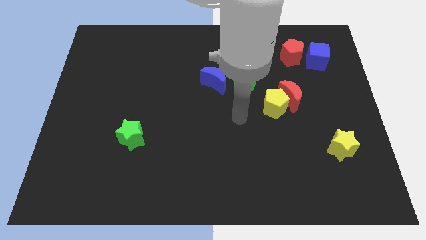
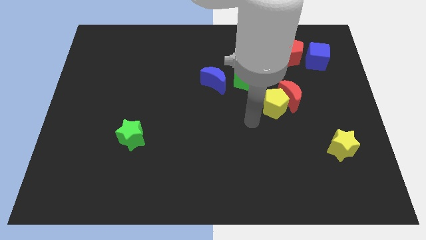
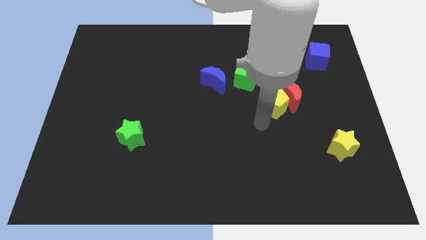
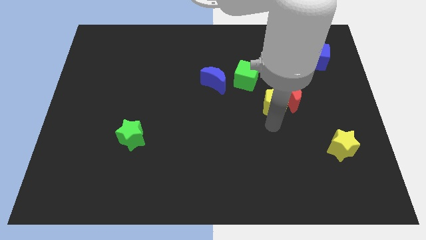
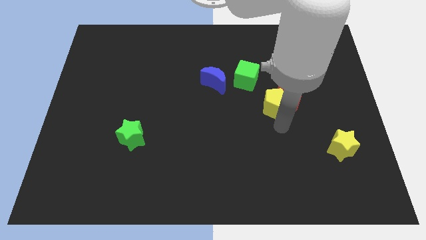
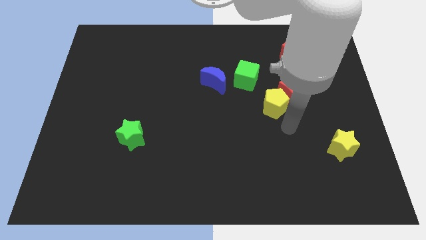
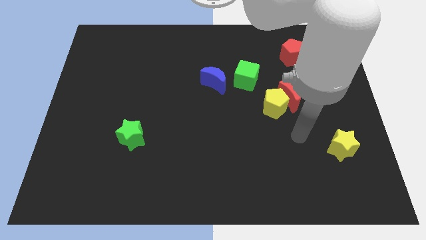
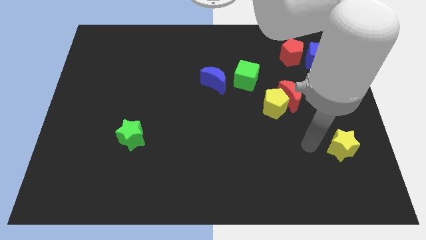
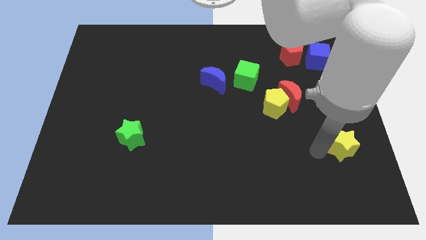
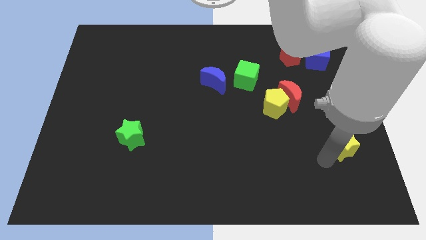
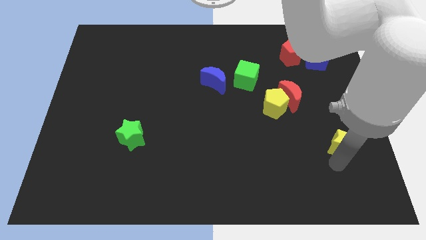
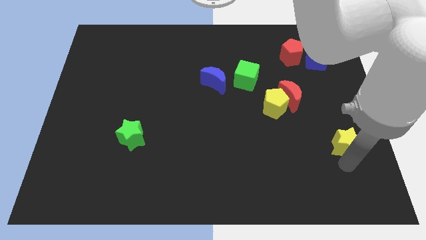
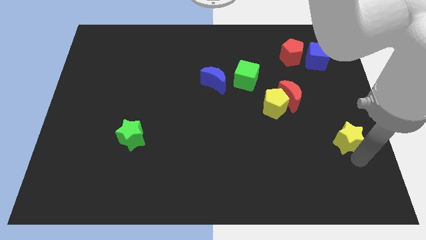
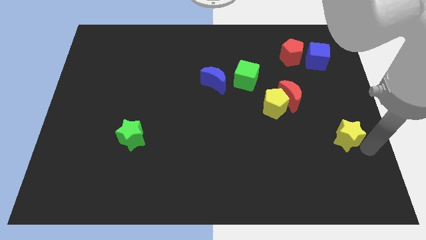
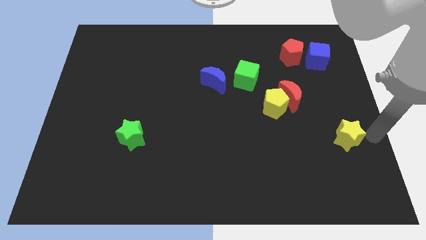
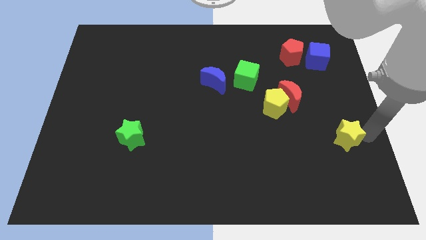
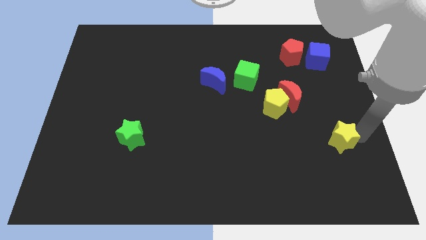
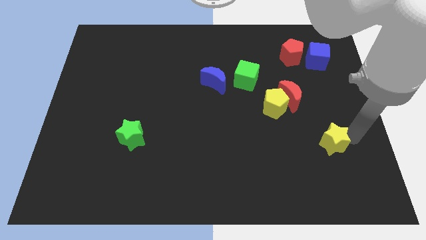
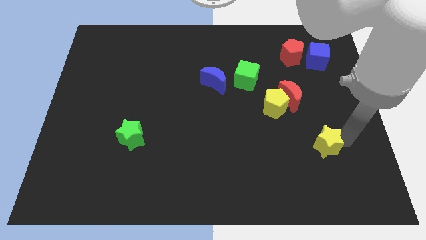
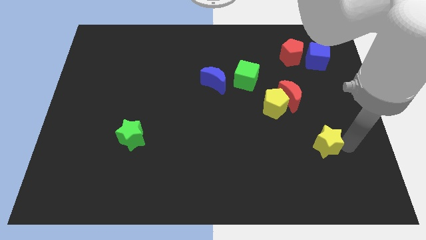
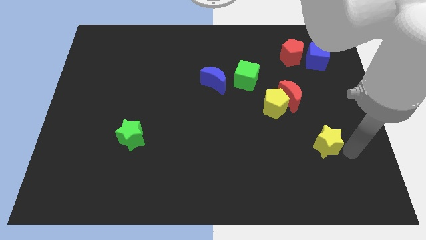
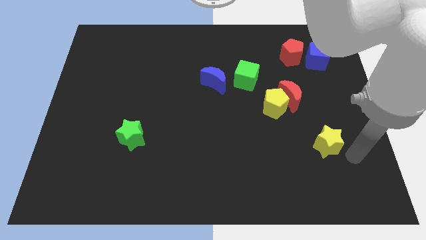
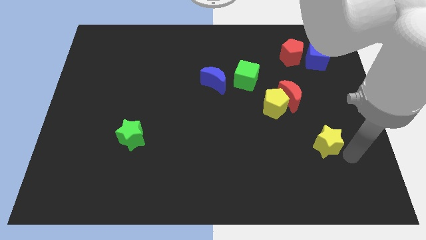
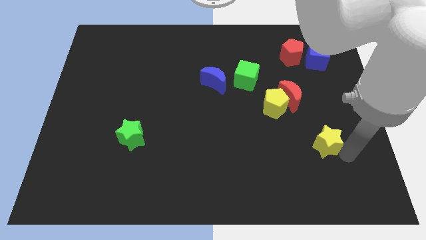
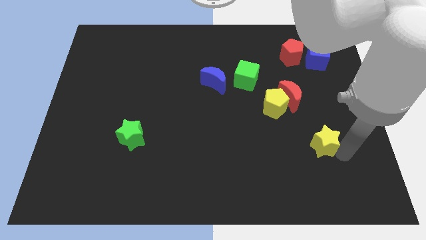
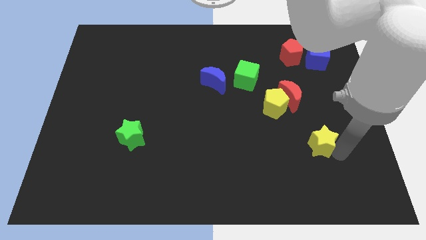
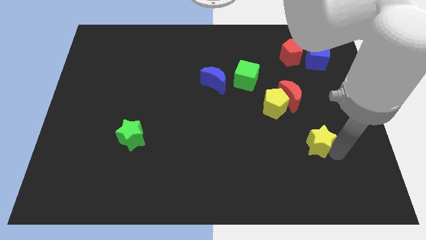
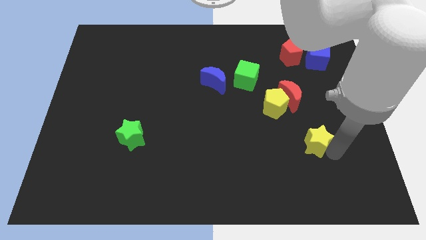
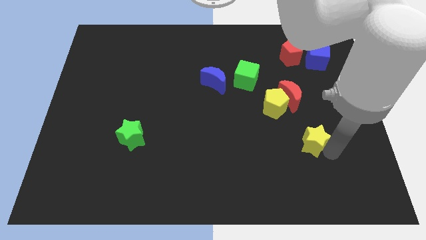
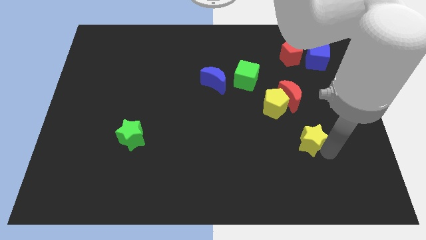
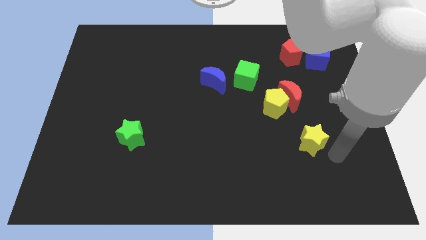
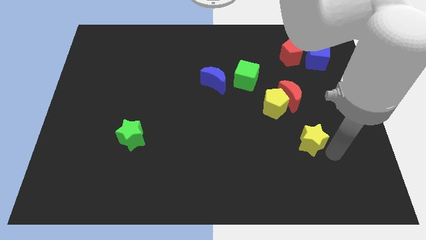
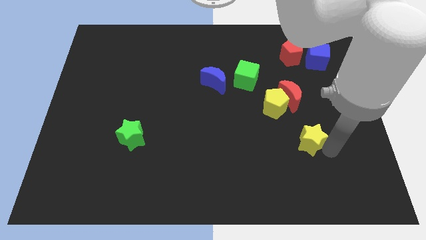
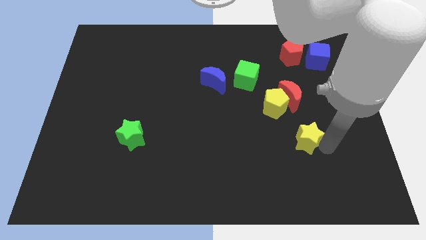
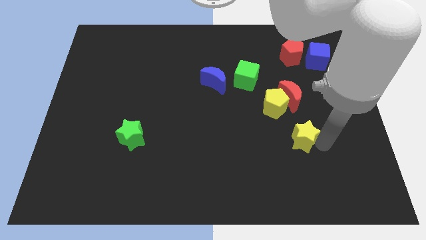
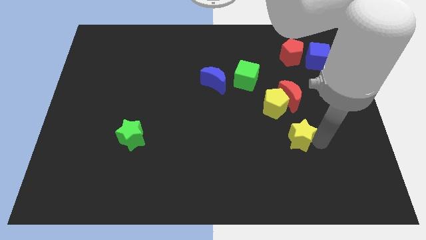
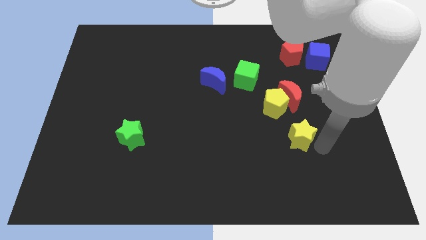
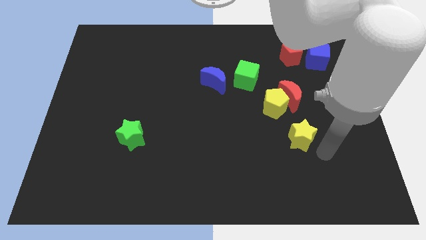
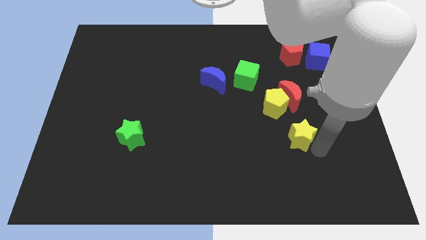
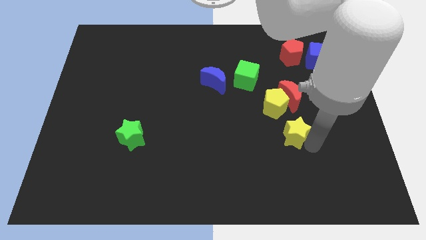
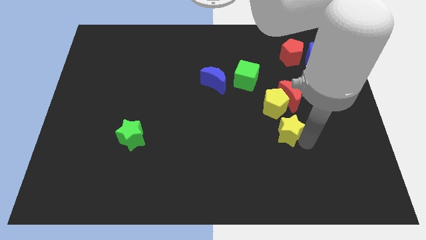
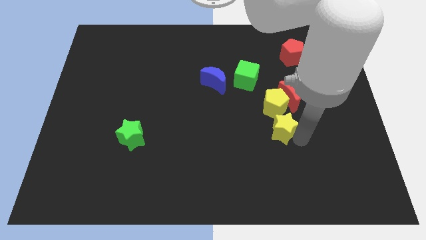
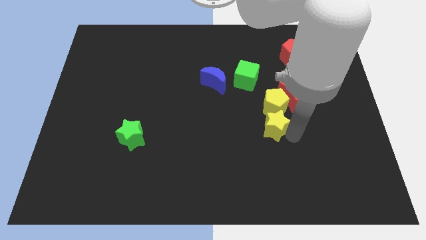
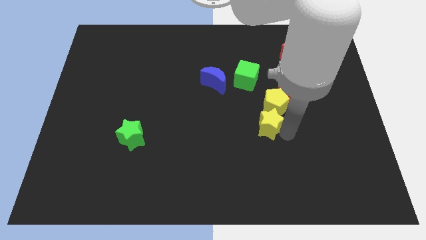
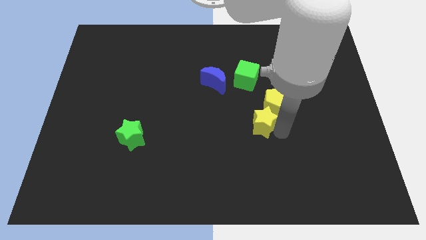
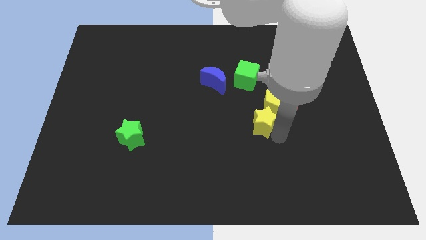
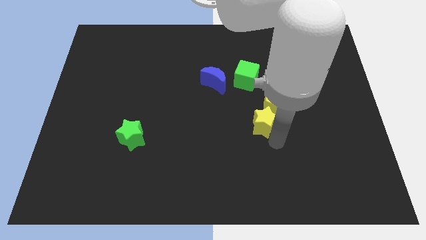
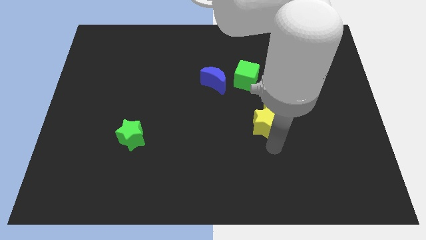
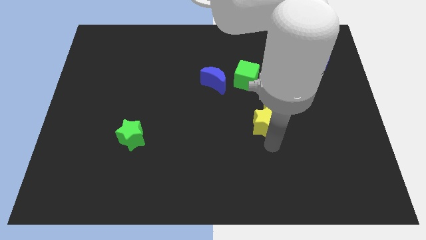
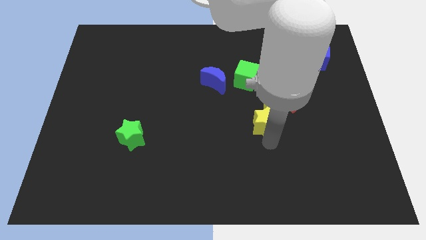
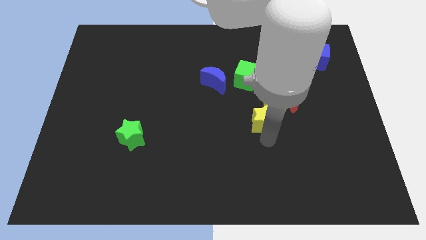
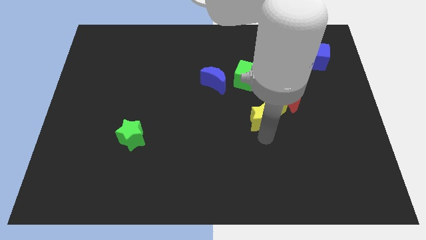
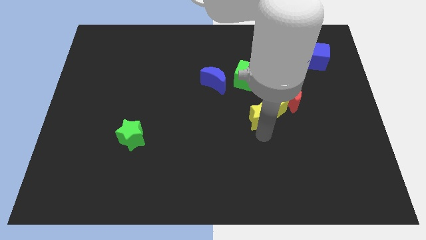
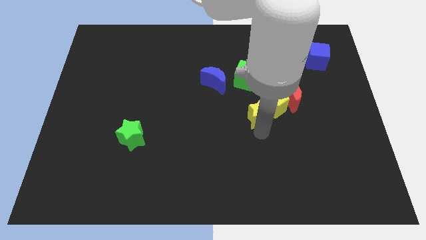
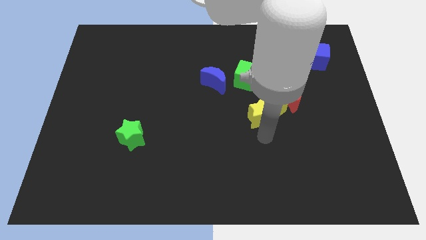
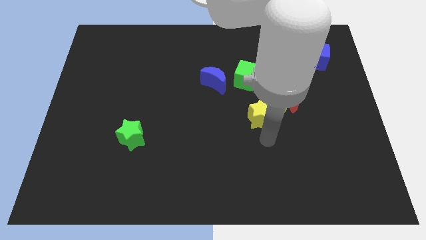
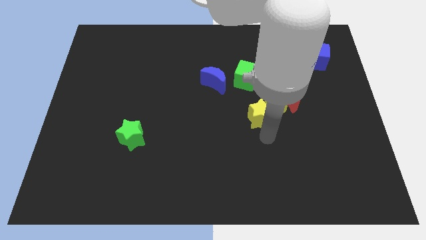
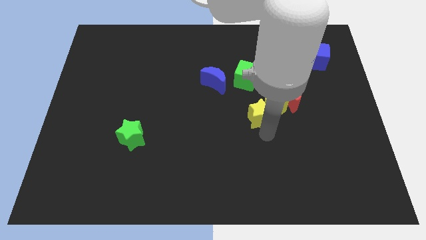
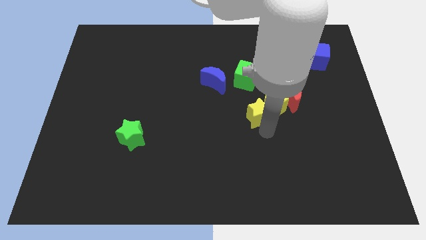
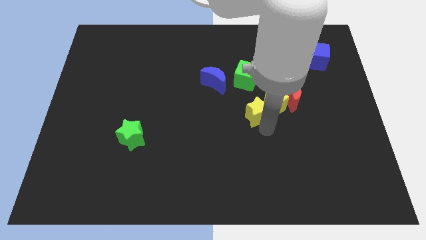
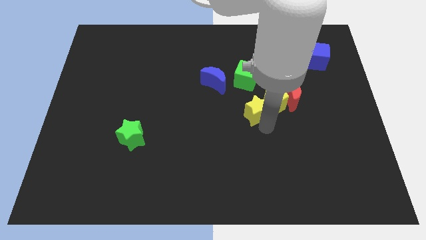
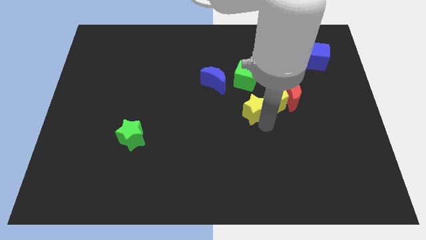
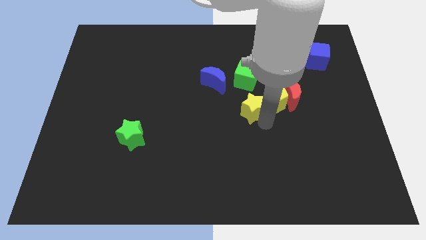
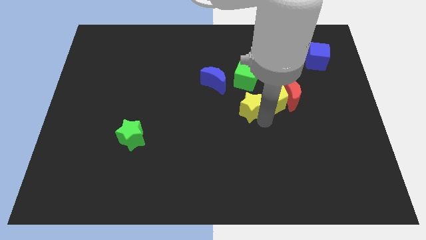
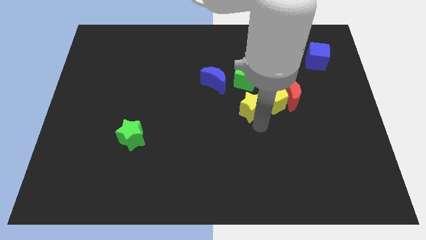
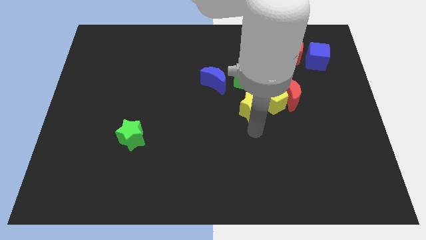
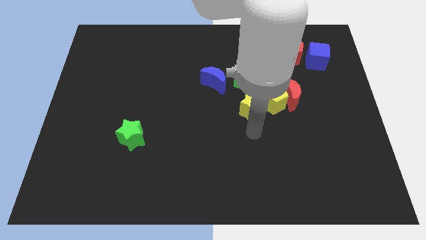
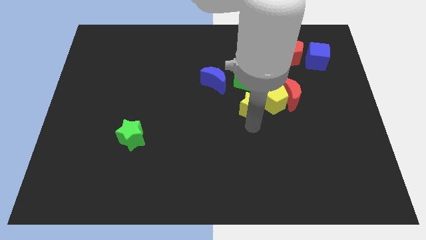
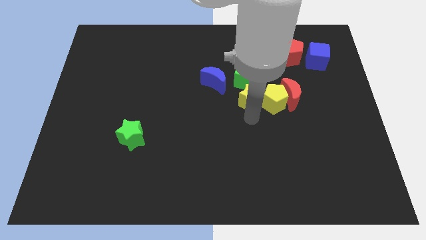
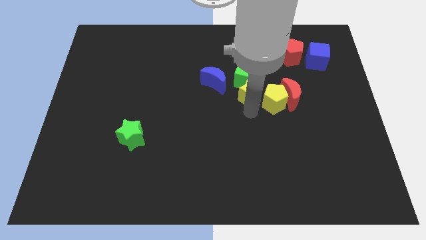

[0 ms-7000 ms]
move the yellow star close to the green cube
